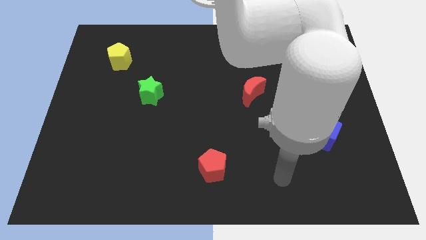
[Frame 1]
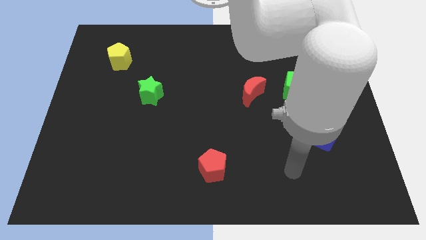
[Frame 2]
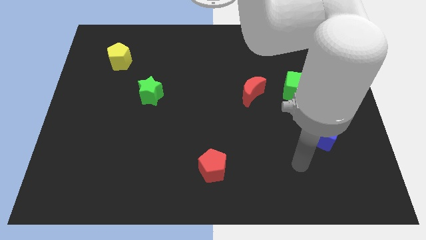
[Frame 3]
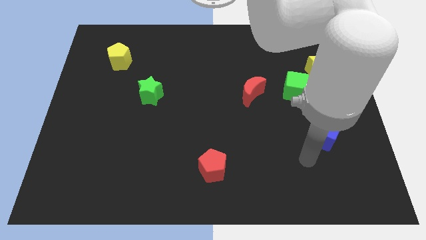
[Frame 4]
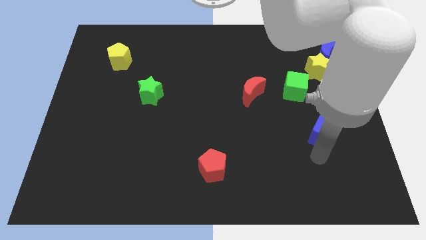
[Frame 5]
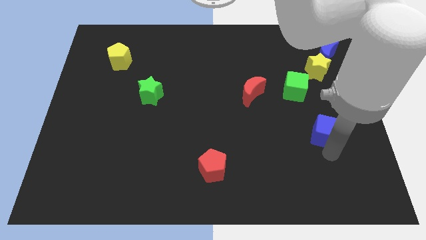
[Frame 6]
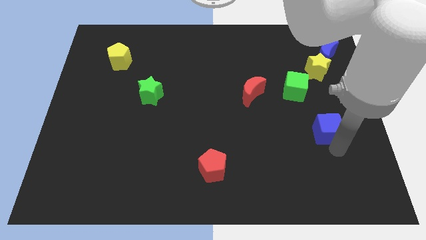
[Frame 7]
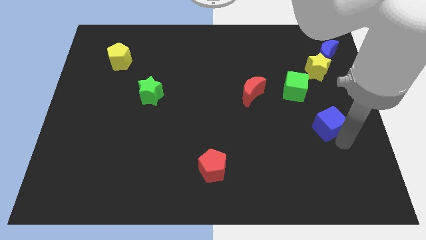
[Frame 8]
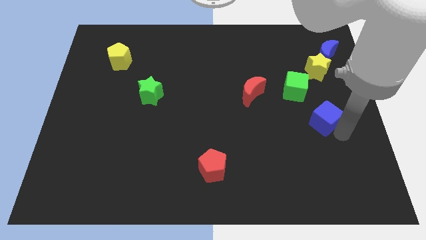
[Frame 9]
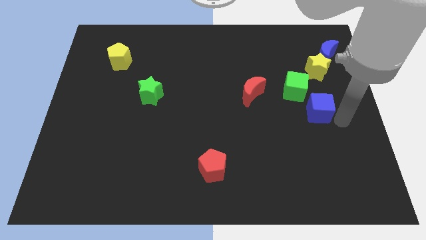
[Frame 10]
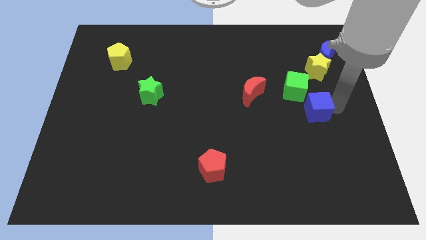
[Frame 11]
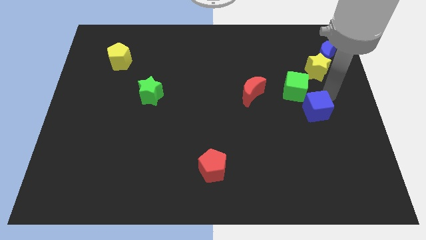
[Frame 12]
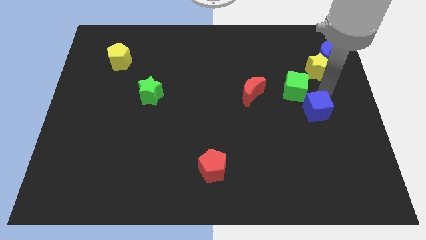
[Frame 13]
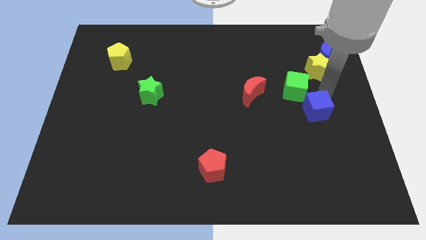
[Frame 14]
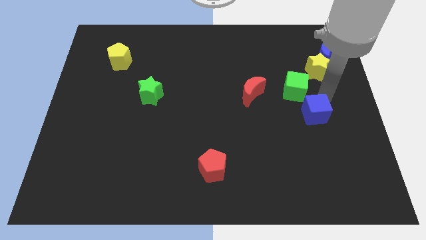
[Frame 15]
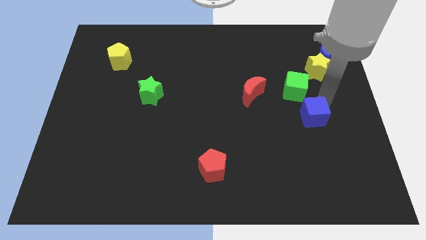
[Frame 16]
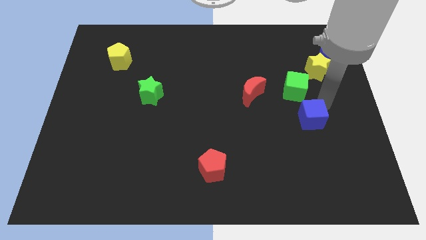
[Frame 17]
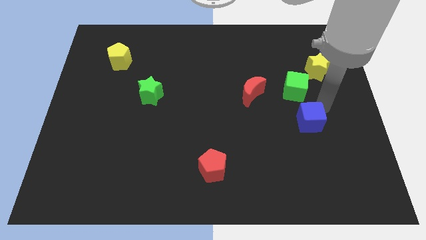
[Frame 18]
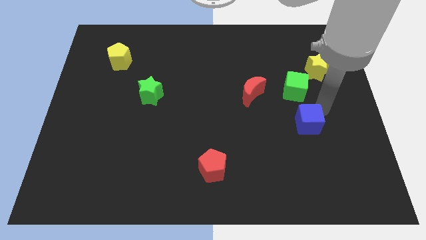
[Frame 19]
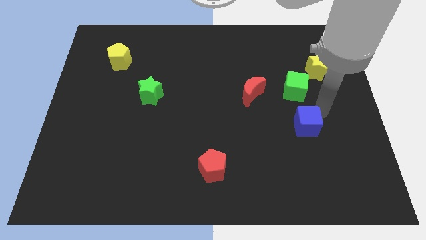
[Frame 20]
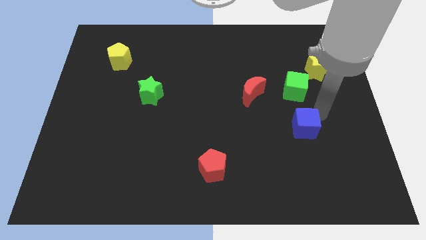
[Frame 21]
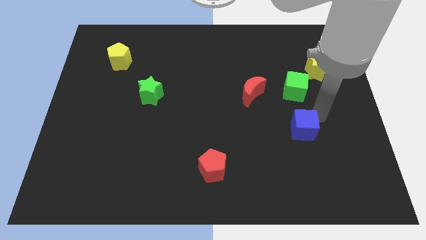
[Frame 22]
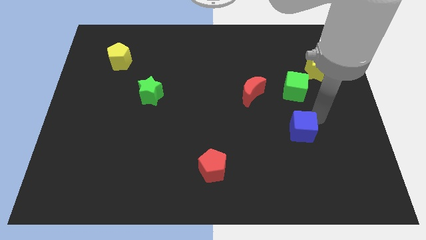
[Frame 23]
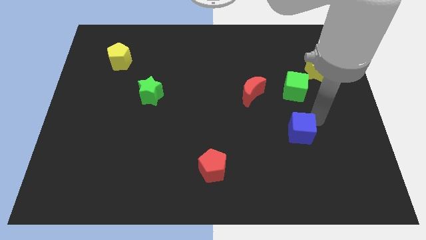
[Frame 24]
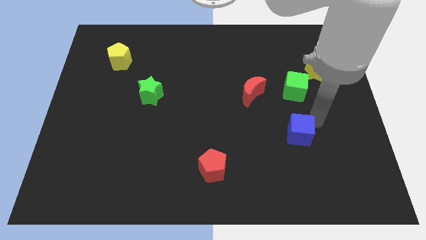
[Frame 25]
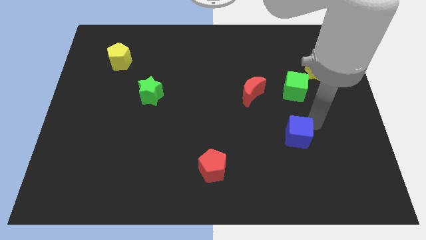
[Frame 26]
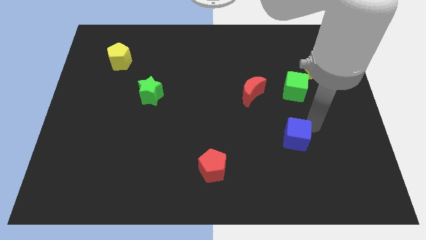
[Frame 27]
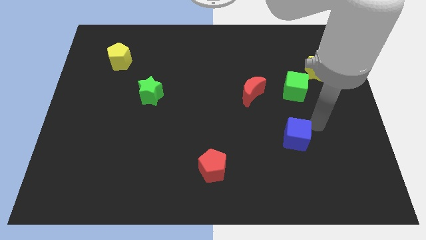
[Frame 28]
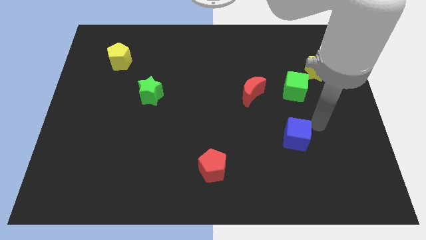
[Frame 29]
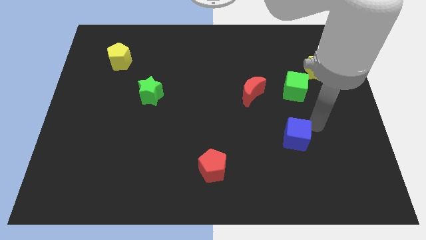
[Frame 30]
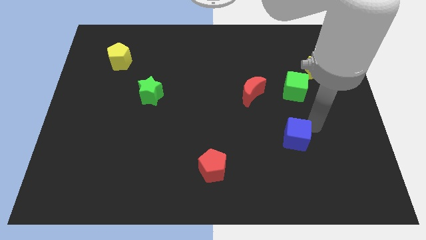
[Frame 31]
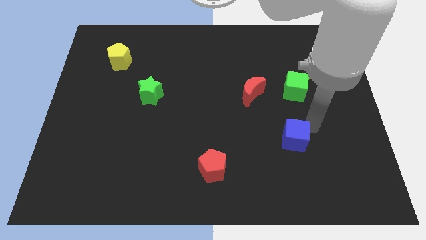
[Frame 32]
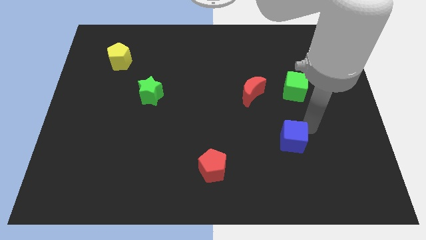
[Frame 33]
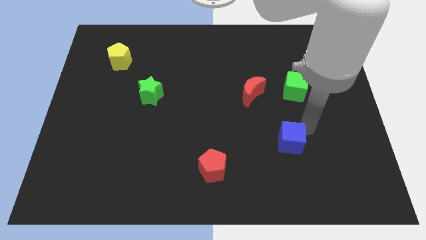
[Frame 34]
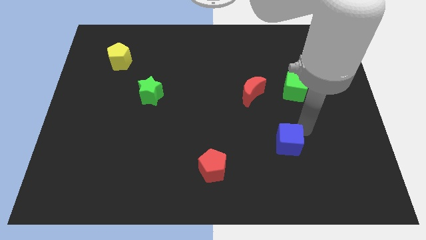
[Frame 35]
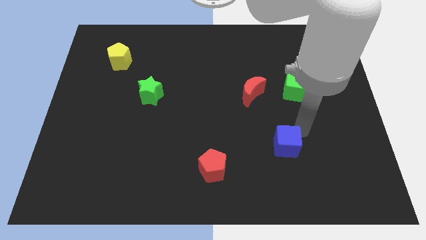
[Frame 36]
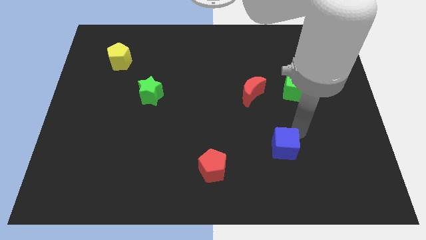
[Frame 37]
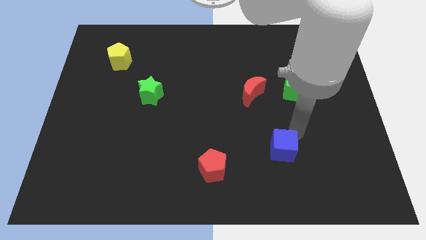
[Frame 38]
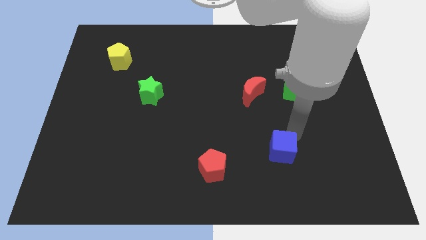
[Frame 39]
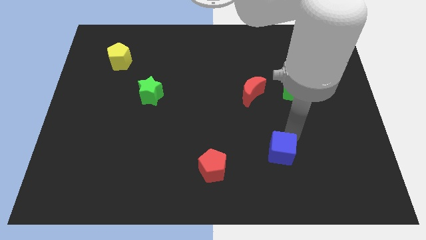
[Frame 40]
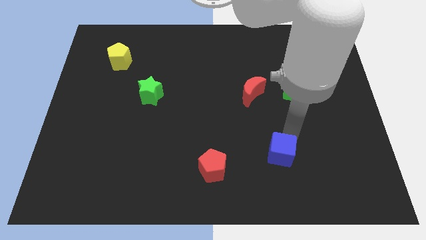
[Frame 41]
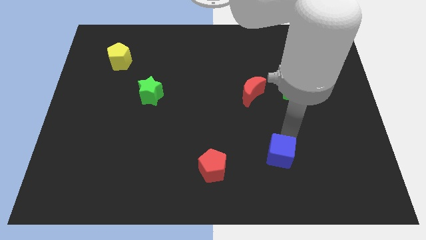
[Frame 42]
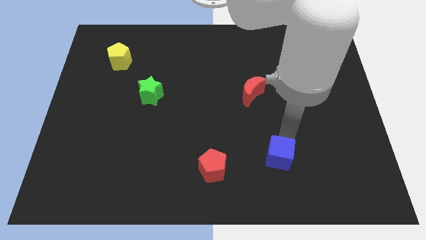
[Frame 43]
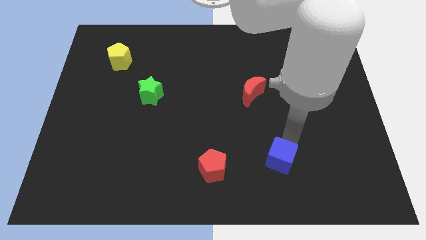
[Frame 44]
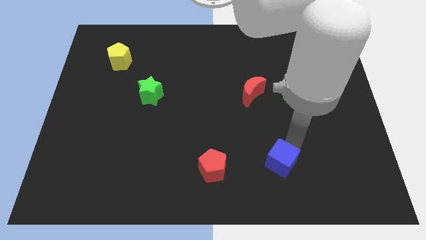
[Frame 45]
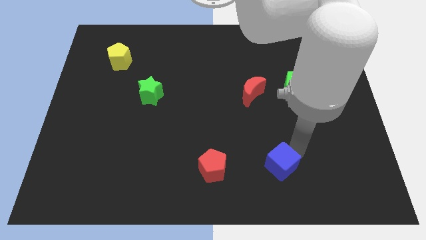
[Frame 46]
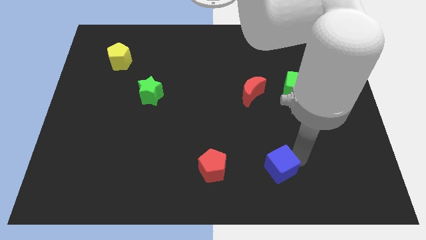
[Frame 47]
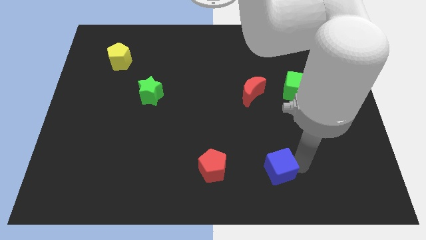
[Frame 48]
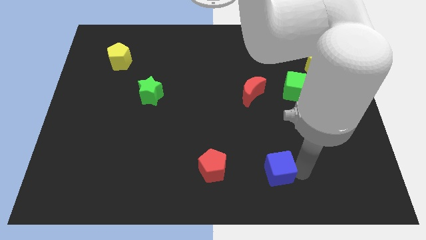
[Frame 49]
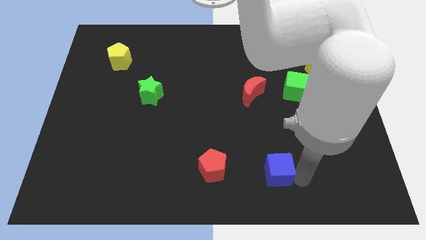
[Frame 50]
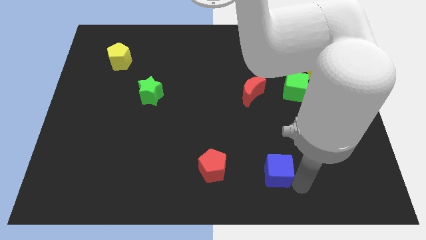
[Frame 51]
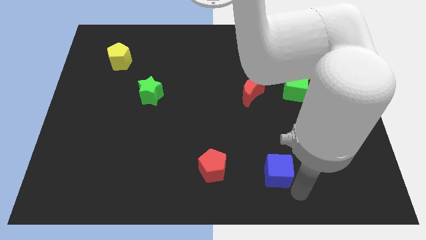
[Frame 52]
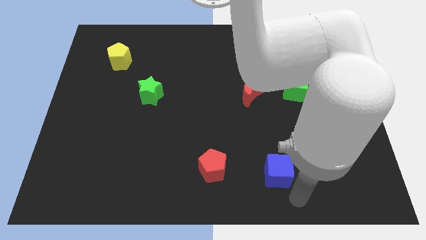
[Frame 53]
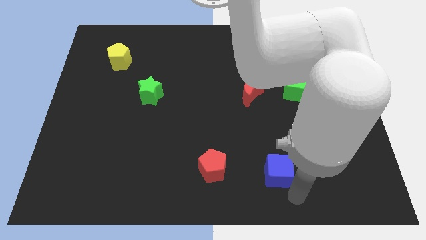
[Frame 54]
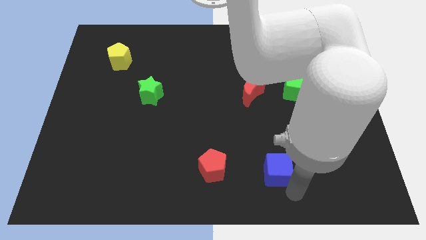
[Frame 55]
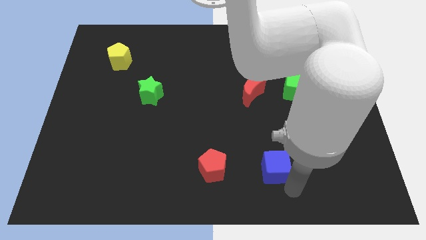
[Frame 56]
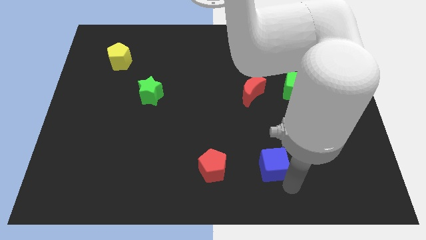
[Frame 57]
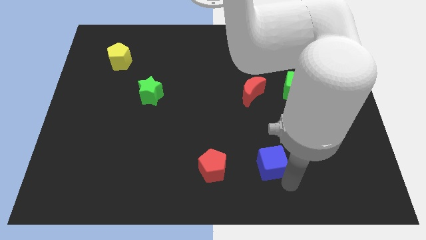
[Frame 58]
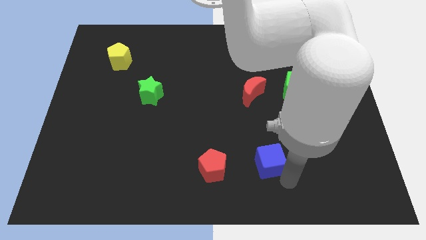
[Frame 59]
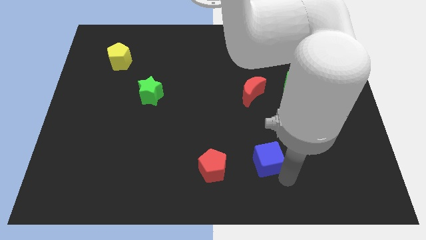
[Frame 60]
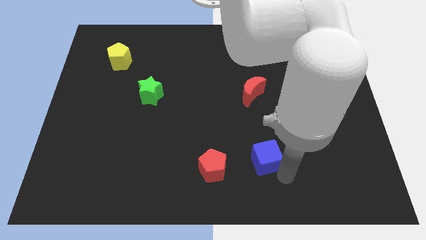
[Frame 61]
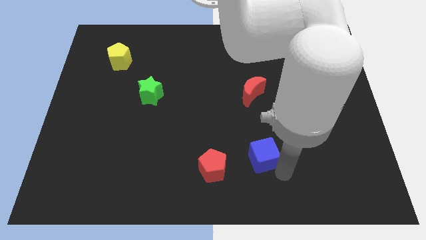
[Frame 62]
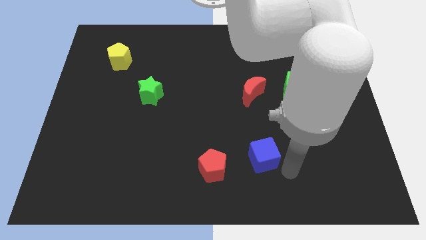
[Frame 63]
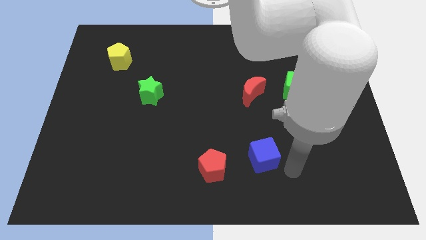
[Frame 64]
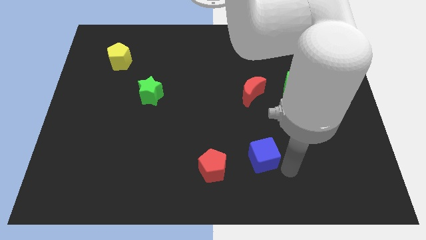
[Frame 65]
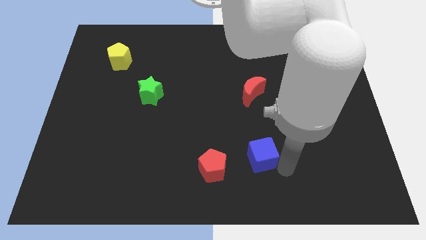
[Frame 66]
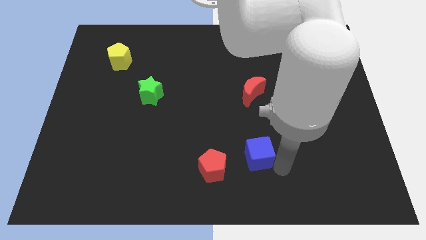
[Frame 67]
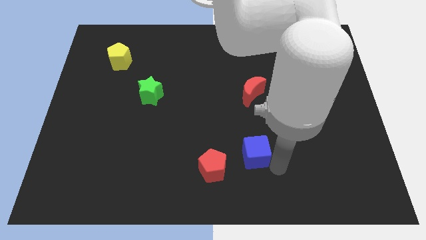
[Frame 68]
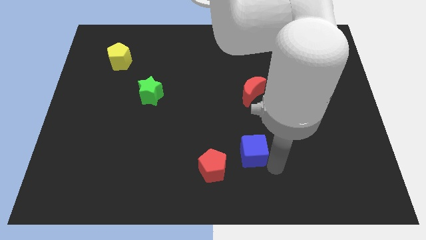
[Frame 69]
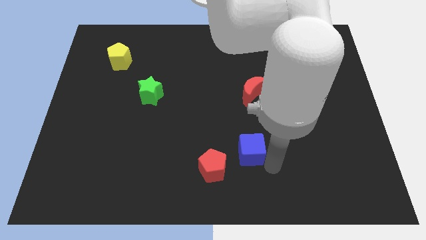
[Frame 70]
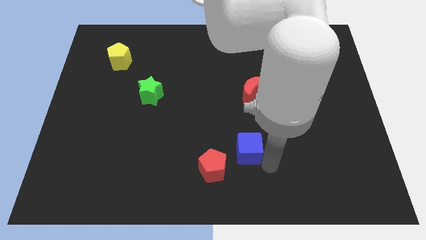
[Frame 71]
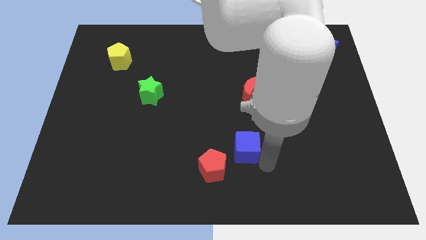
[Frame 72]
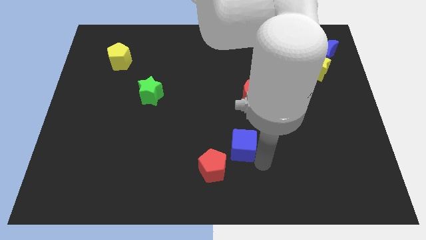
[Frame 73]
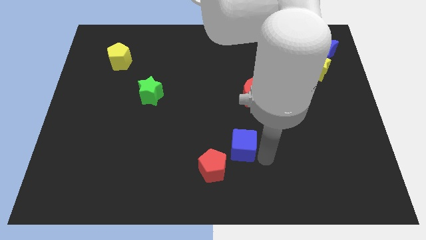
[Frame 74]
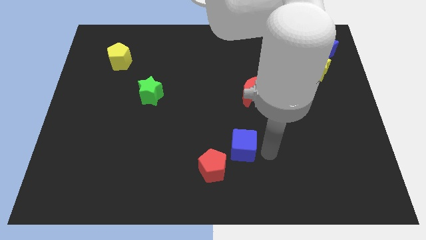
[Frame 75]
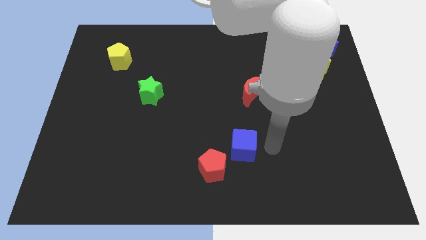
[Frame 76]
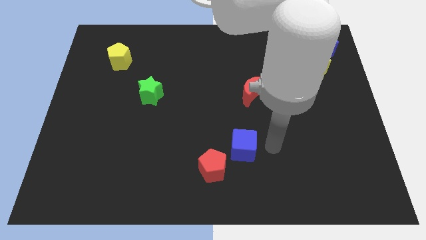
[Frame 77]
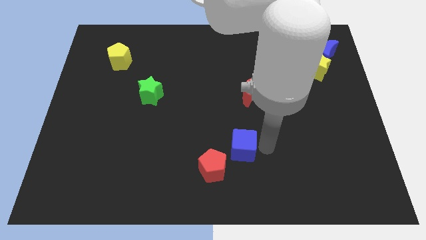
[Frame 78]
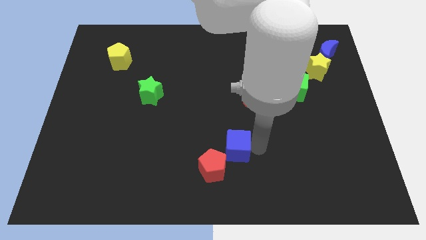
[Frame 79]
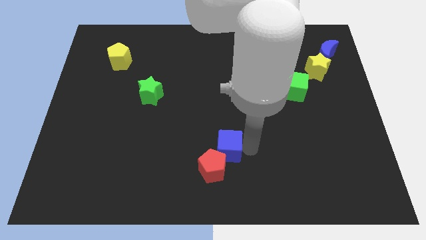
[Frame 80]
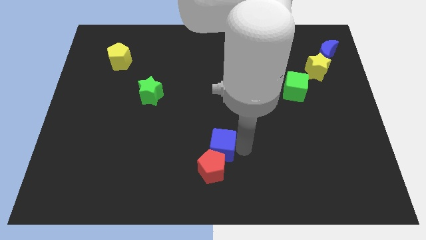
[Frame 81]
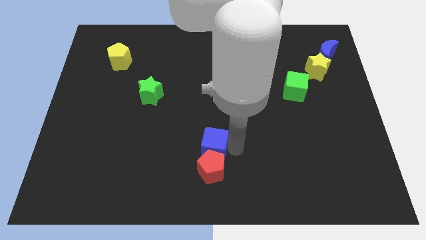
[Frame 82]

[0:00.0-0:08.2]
slide the blue cube to the top left of the red pentagon
